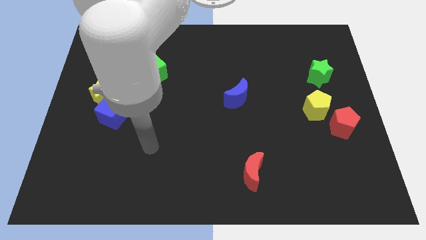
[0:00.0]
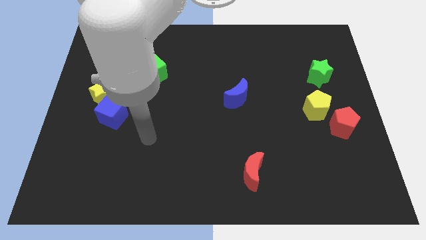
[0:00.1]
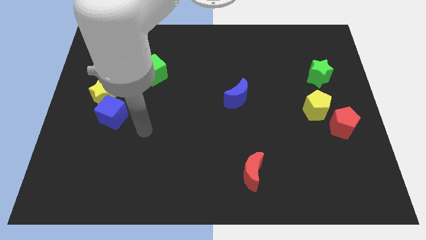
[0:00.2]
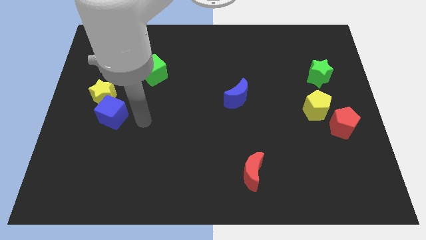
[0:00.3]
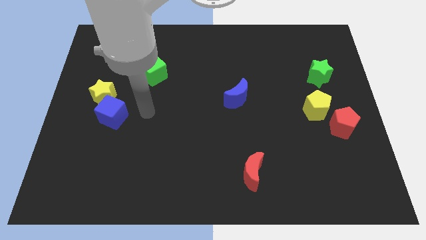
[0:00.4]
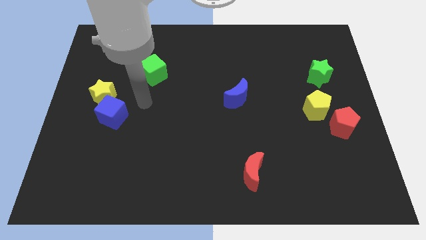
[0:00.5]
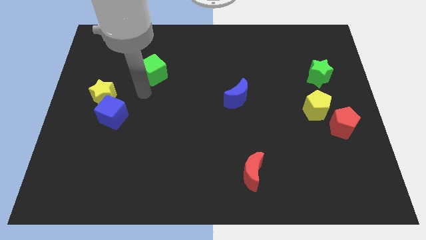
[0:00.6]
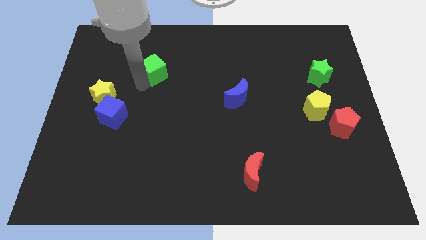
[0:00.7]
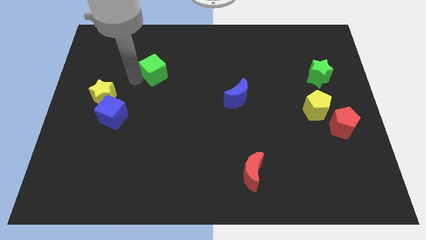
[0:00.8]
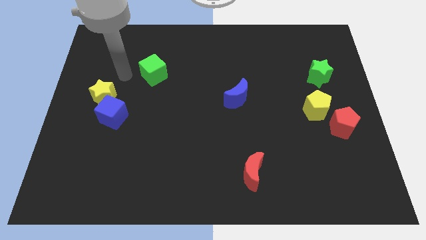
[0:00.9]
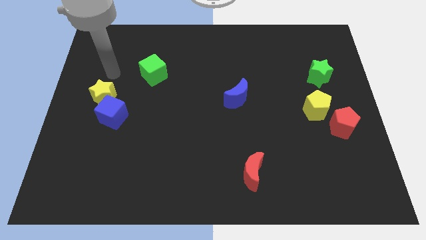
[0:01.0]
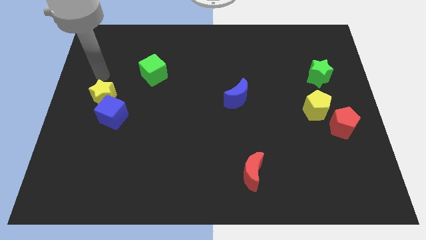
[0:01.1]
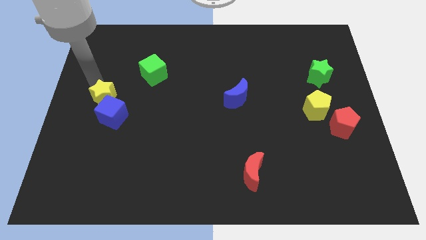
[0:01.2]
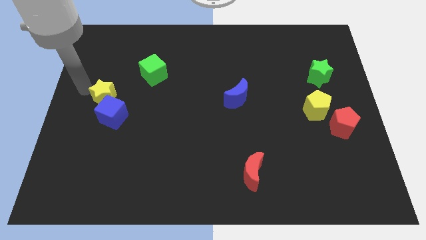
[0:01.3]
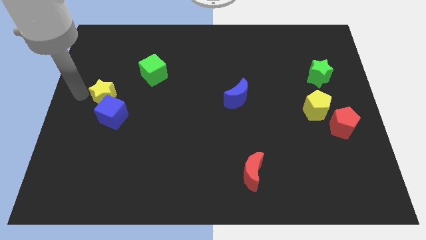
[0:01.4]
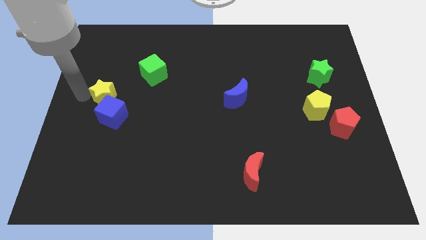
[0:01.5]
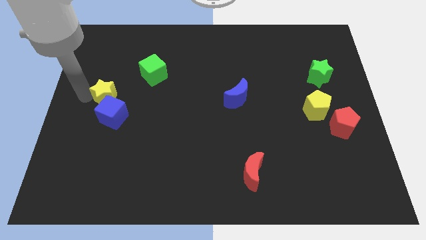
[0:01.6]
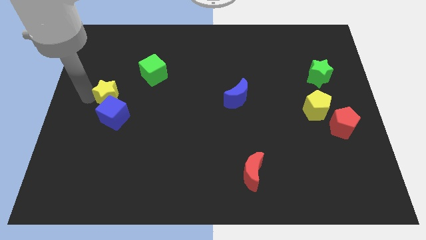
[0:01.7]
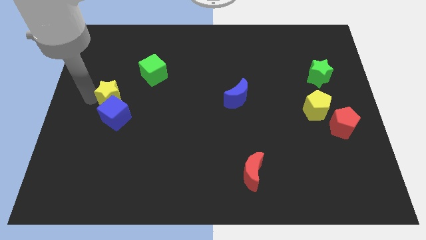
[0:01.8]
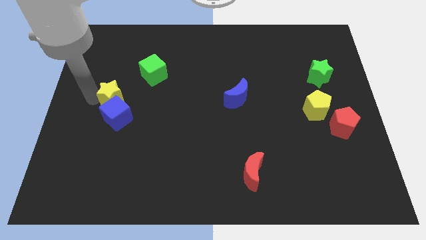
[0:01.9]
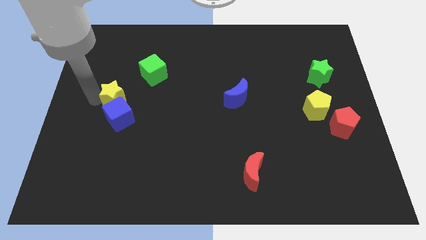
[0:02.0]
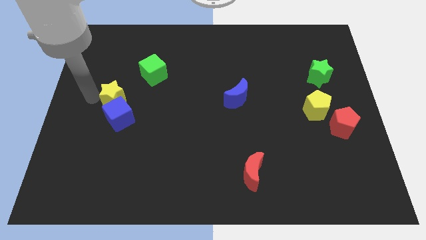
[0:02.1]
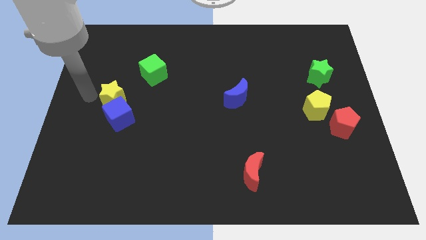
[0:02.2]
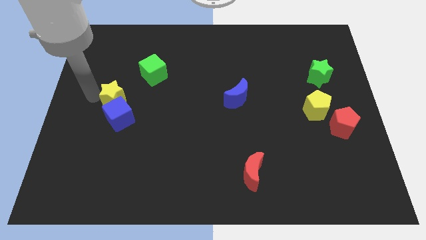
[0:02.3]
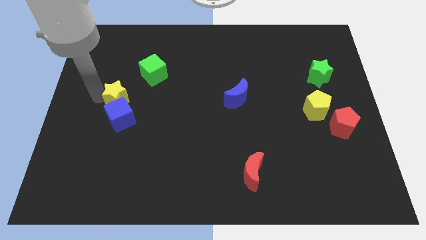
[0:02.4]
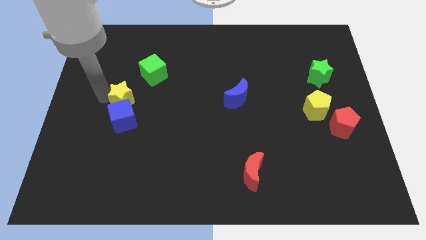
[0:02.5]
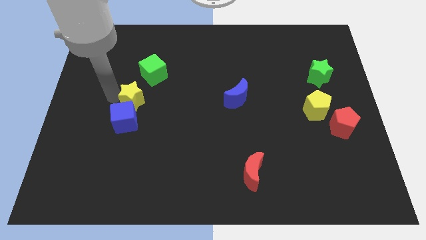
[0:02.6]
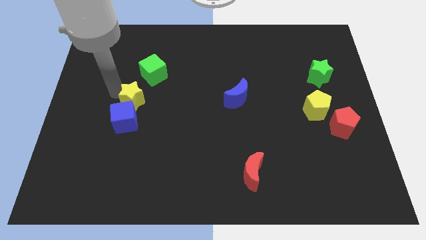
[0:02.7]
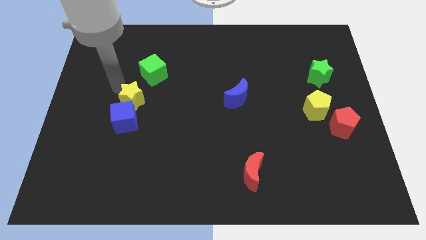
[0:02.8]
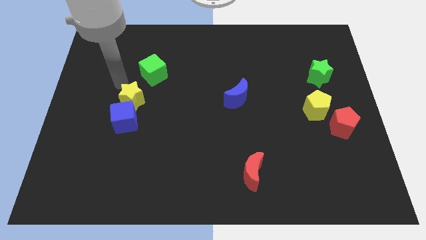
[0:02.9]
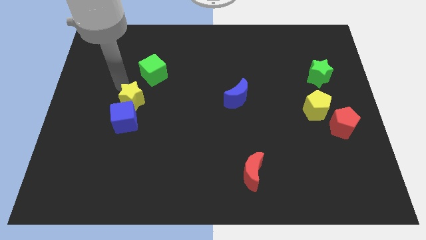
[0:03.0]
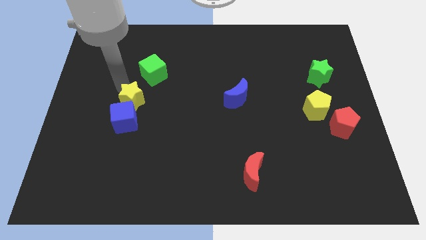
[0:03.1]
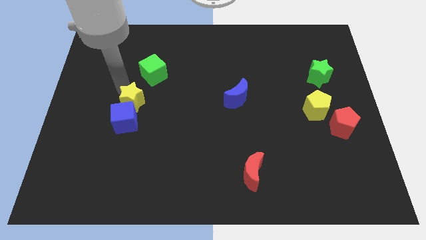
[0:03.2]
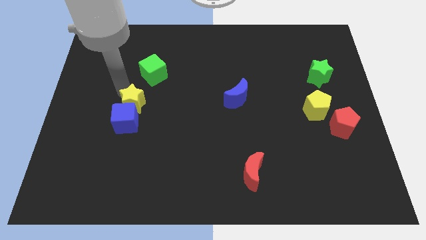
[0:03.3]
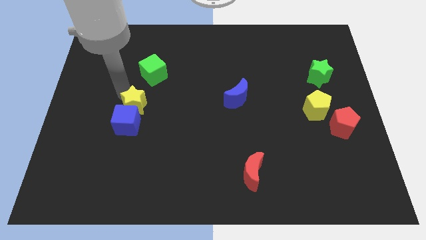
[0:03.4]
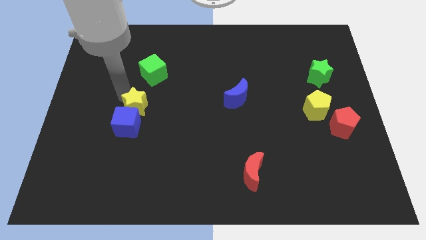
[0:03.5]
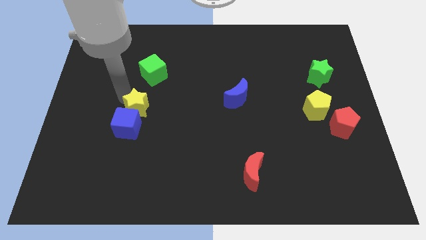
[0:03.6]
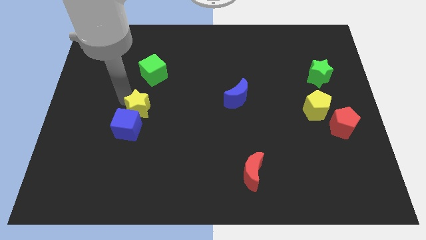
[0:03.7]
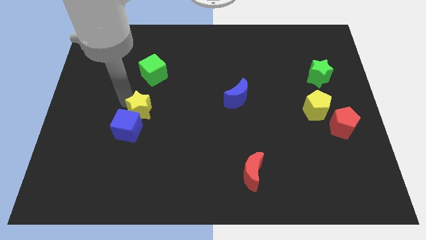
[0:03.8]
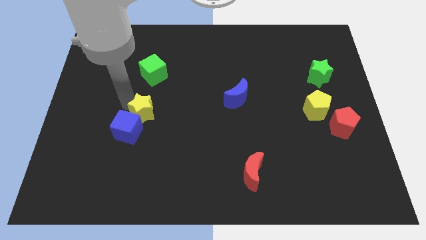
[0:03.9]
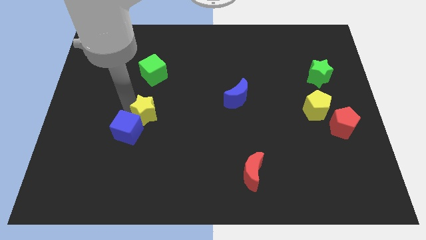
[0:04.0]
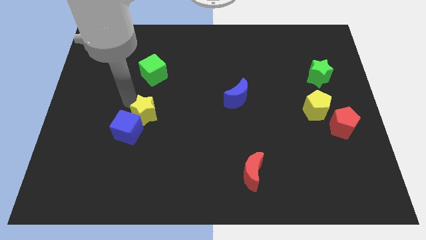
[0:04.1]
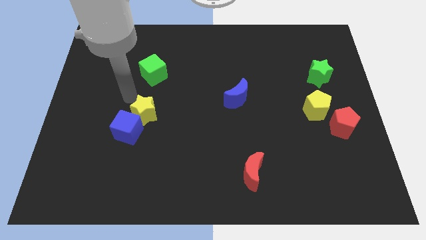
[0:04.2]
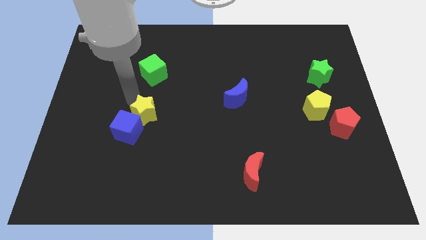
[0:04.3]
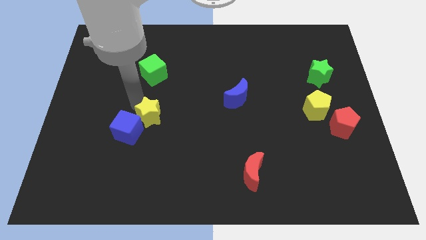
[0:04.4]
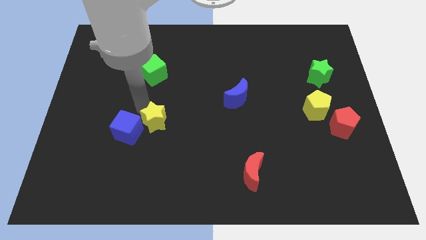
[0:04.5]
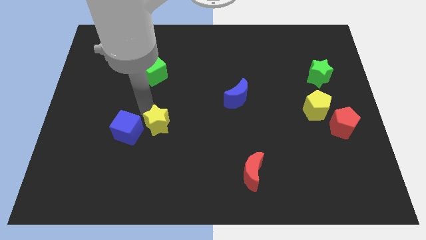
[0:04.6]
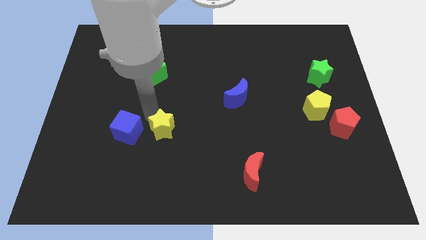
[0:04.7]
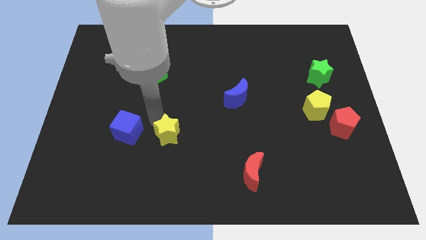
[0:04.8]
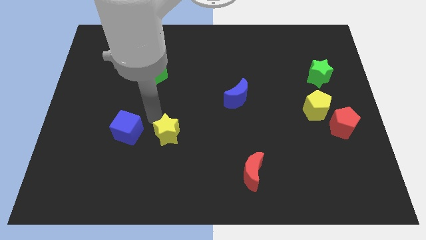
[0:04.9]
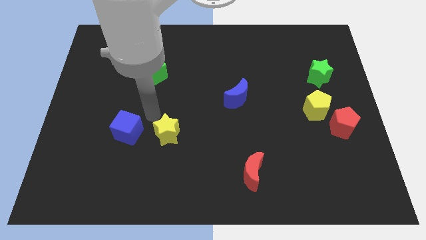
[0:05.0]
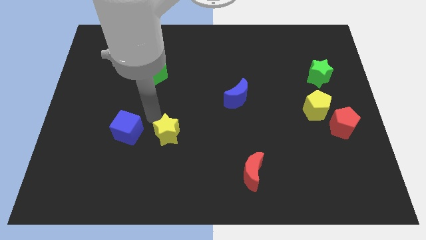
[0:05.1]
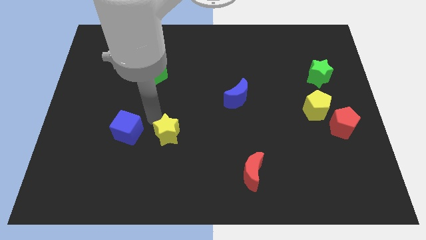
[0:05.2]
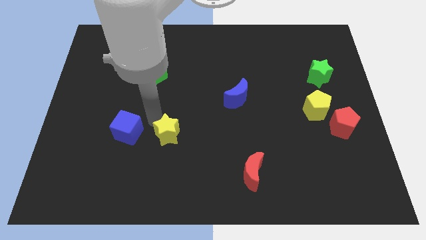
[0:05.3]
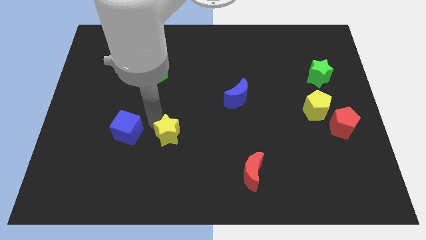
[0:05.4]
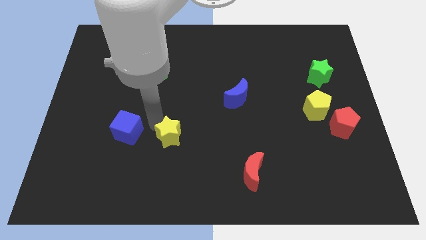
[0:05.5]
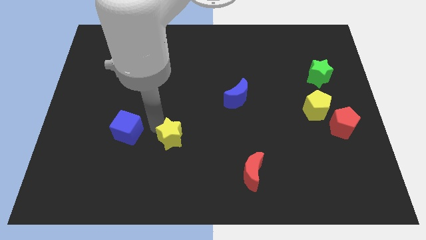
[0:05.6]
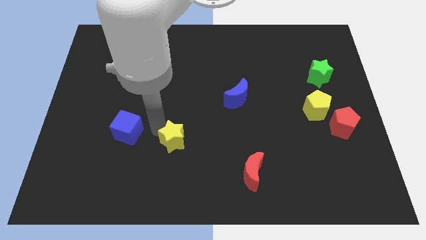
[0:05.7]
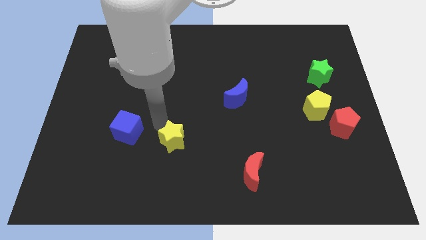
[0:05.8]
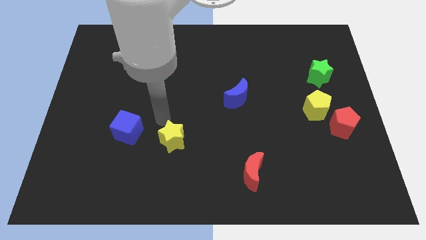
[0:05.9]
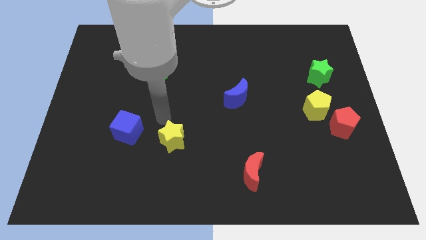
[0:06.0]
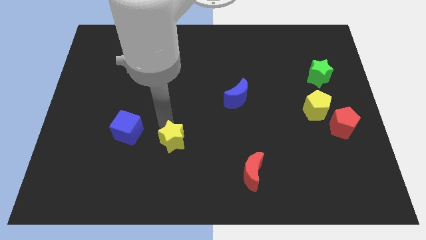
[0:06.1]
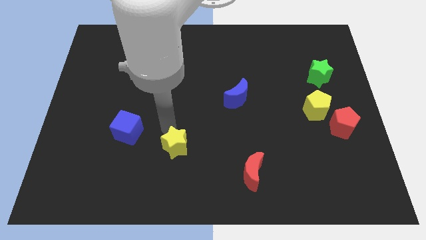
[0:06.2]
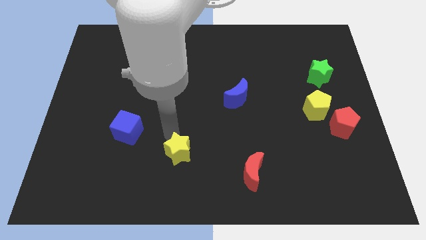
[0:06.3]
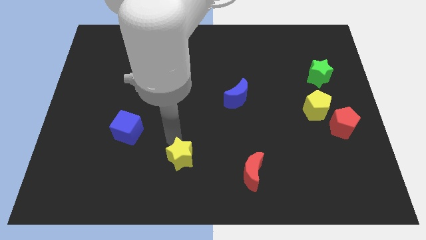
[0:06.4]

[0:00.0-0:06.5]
put the yellow star to the left of the red moon
